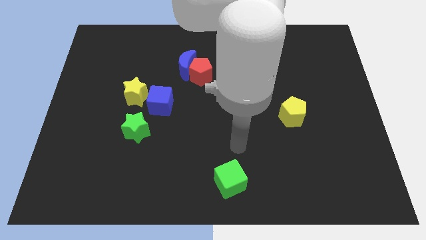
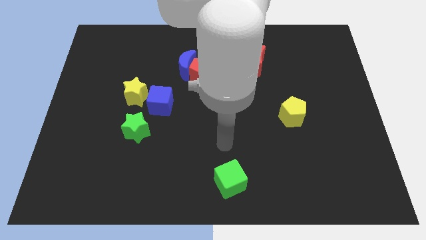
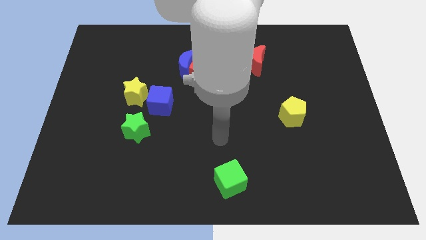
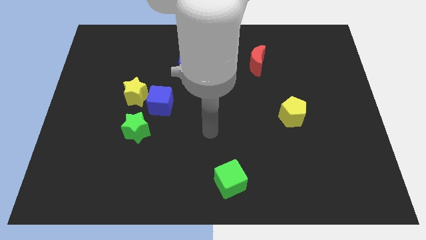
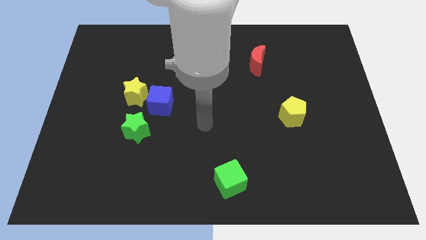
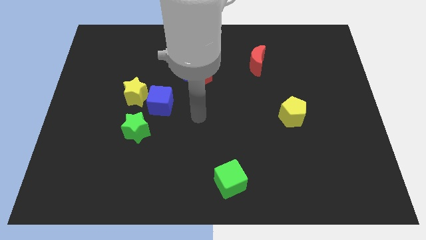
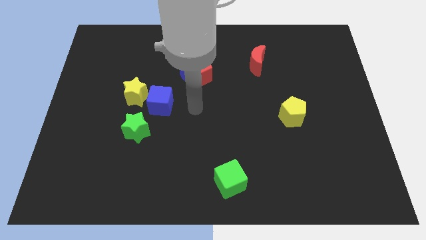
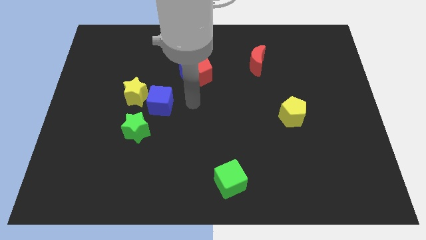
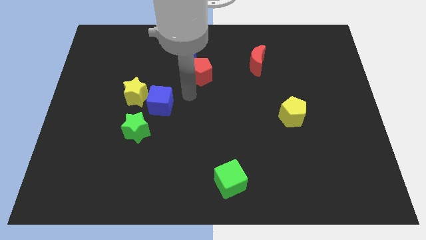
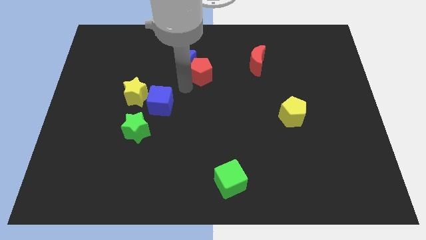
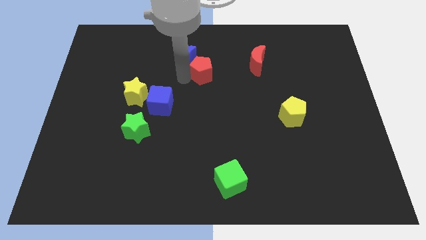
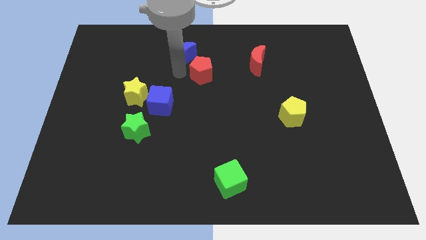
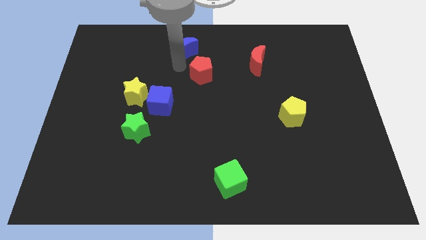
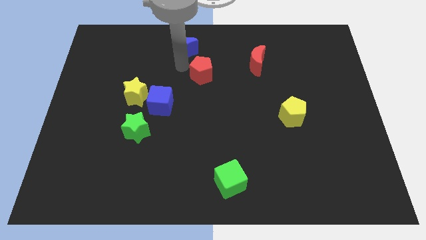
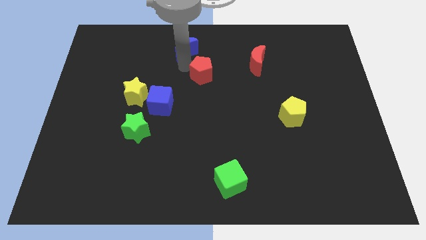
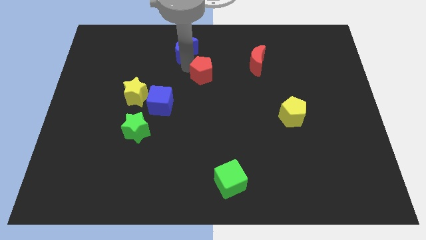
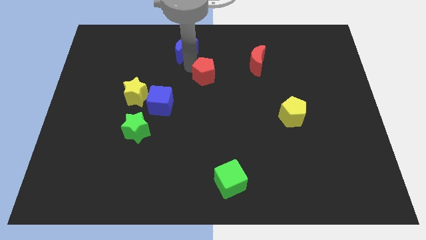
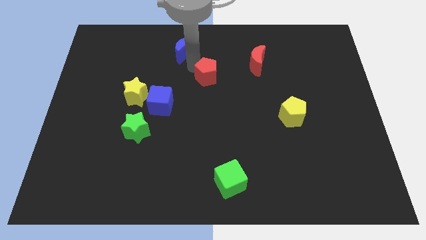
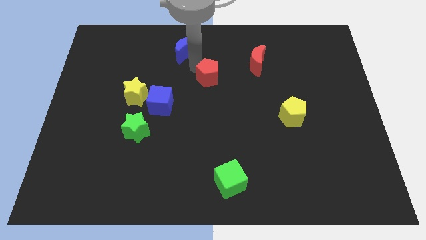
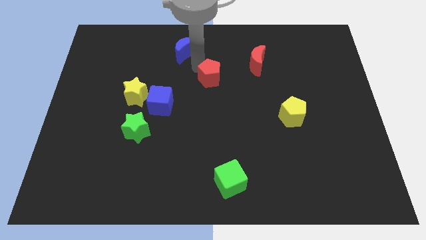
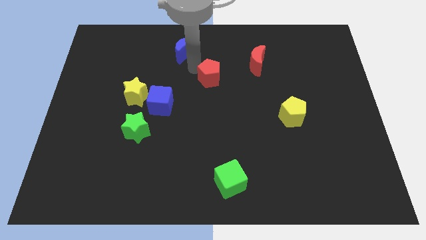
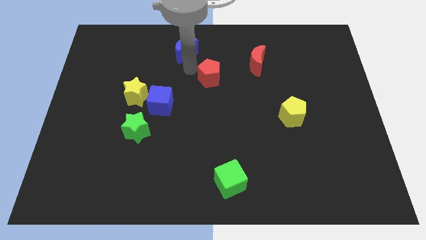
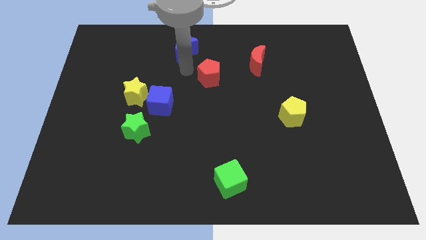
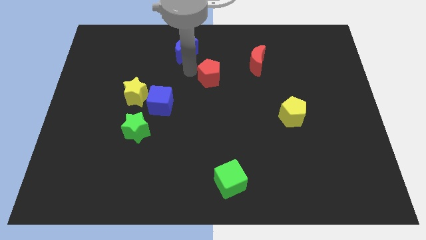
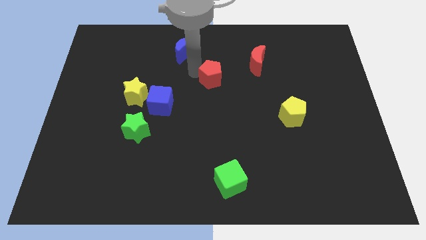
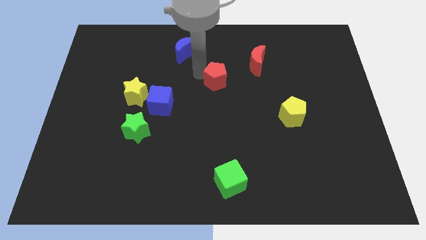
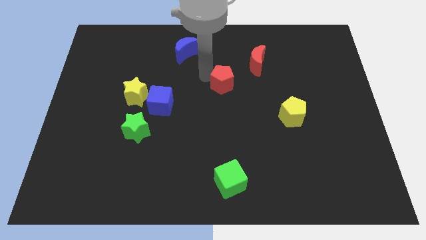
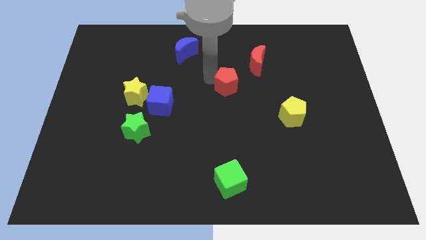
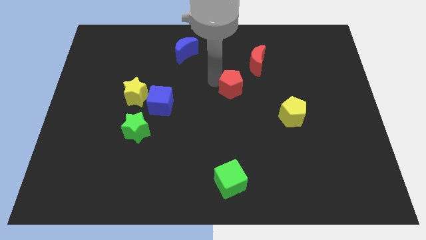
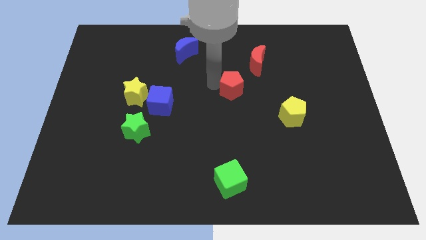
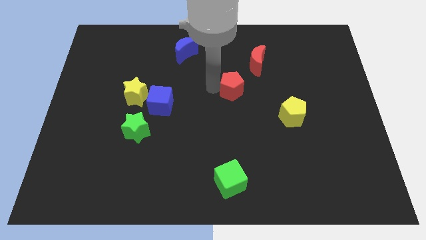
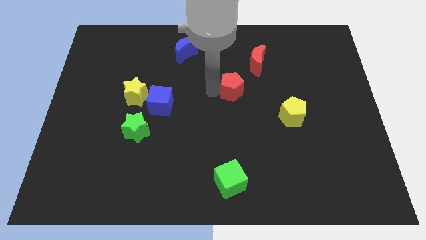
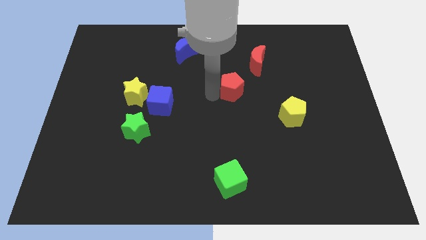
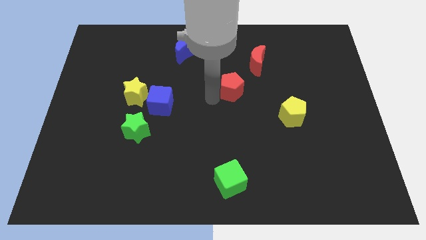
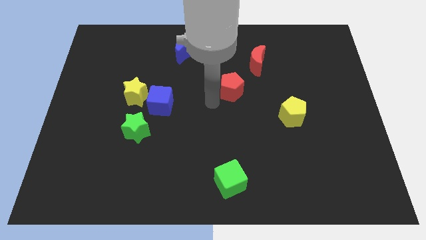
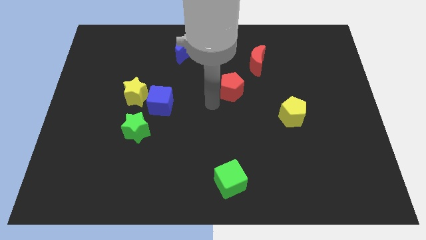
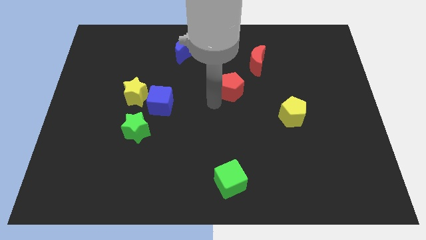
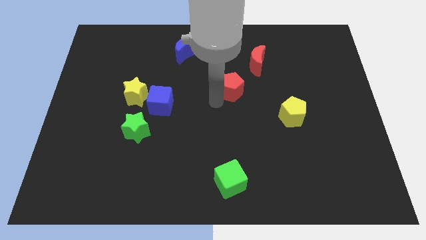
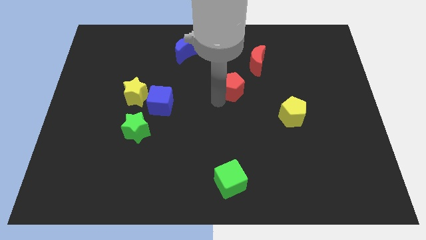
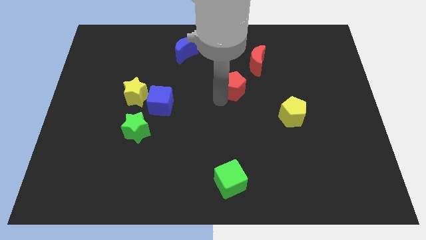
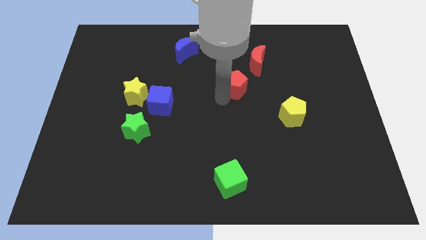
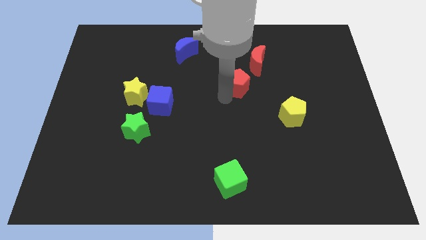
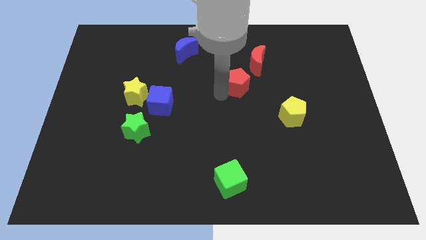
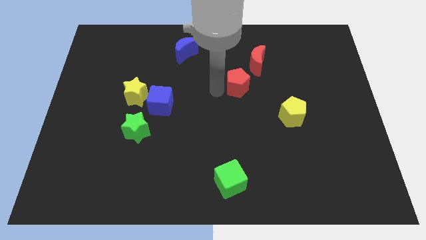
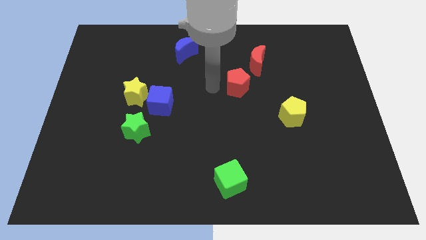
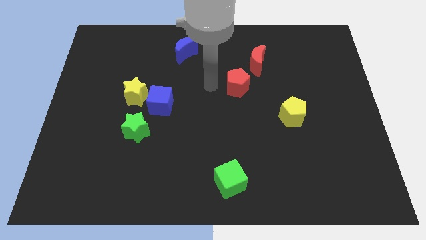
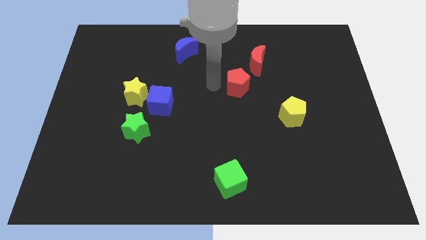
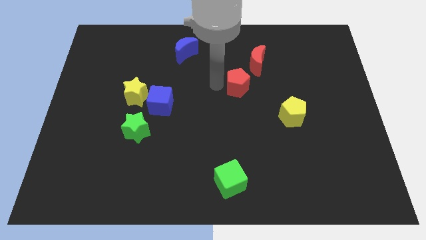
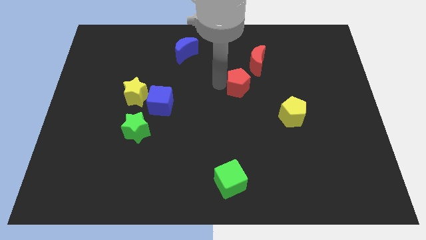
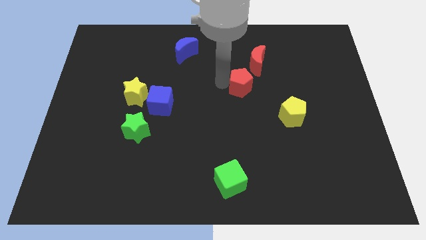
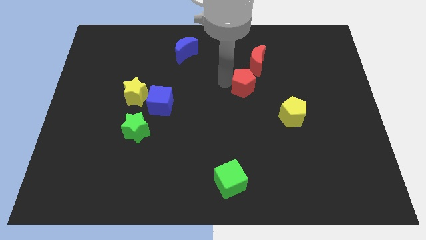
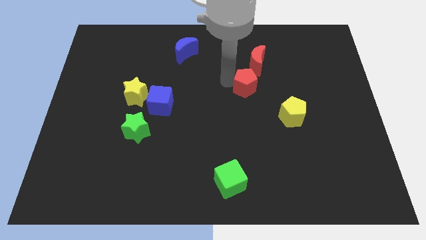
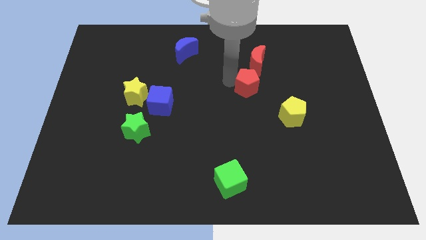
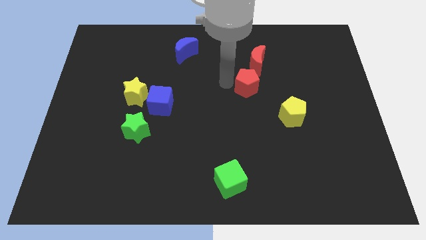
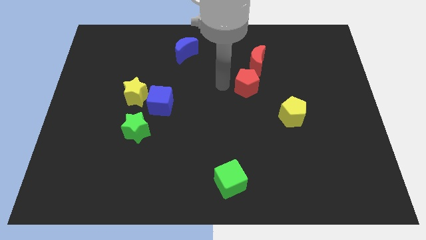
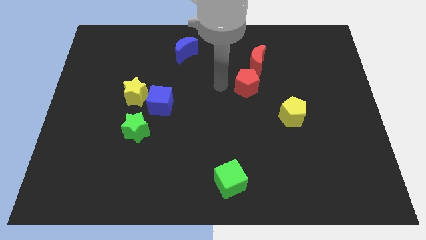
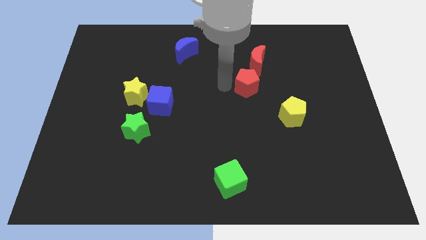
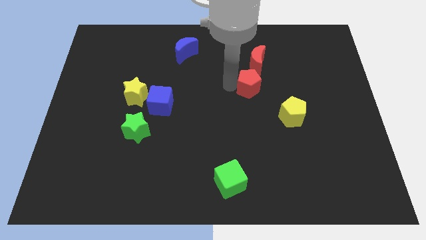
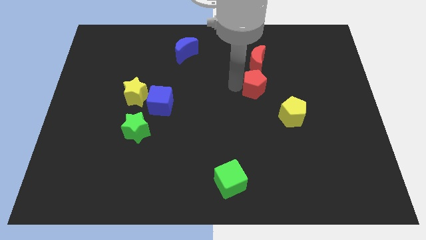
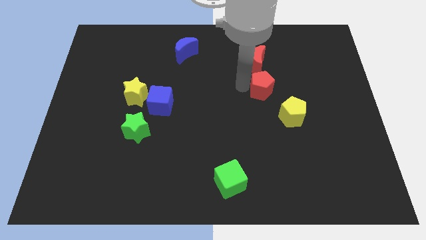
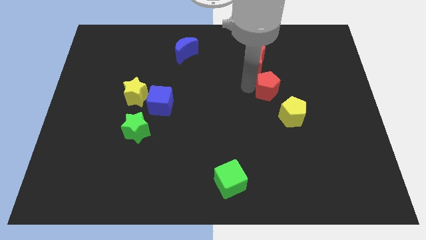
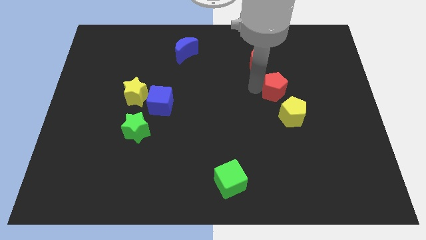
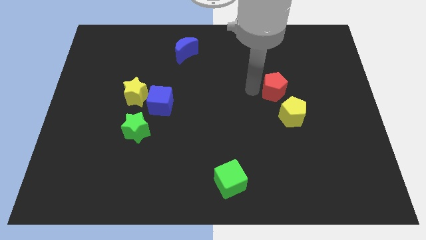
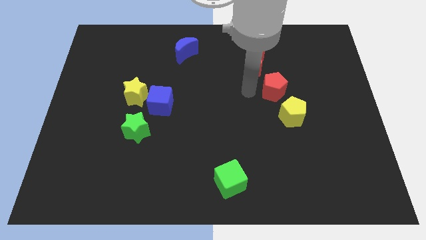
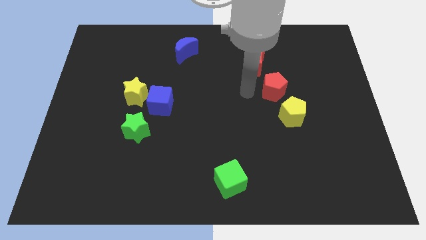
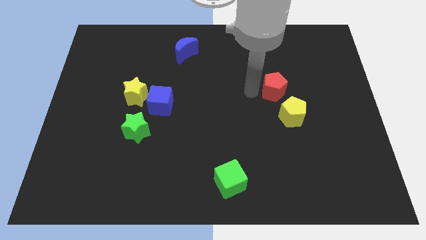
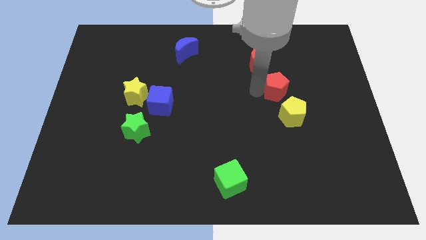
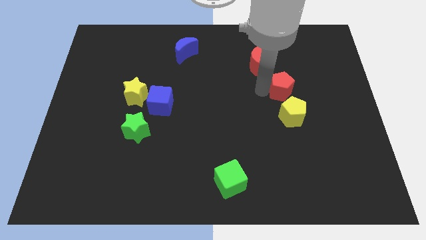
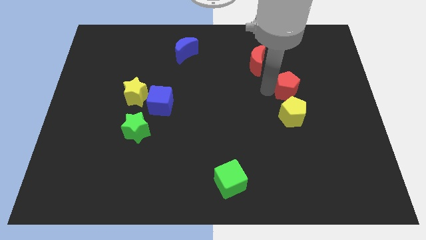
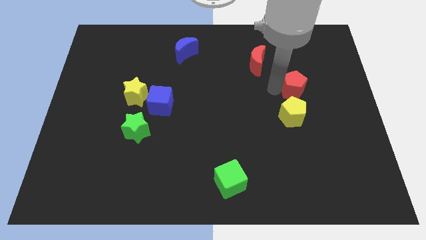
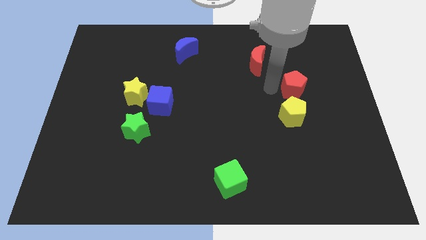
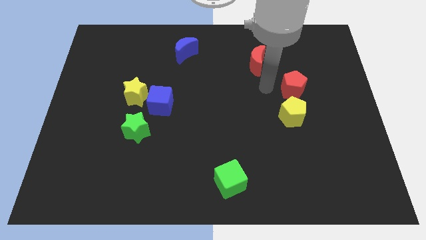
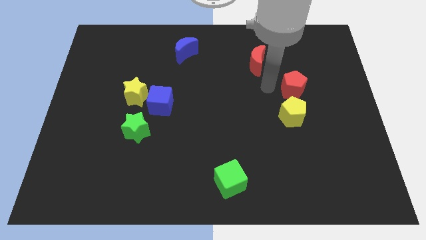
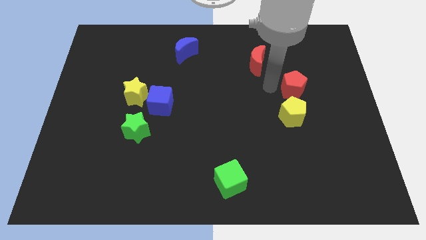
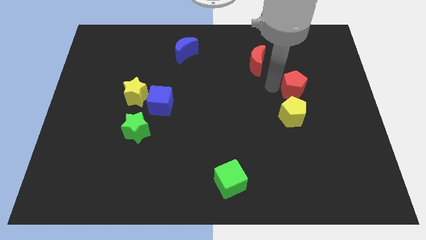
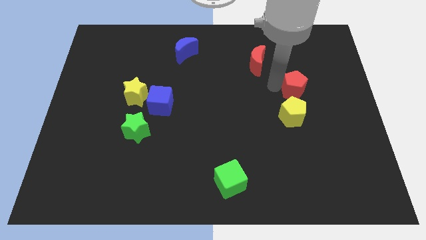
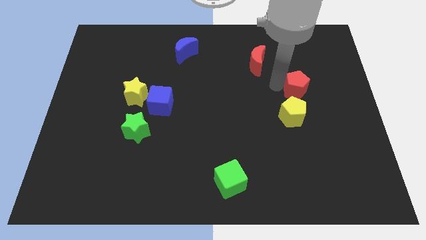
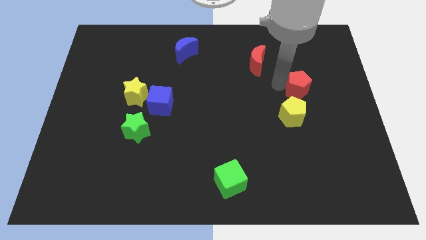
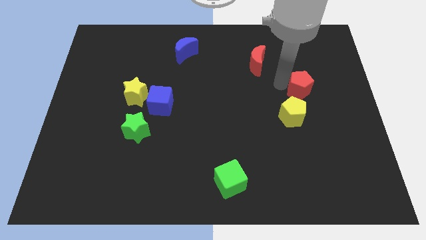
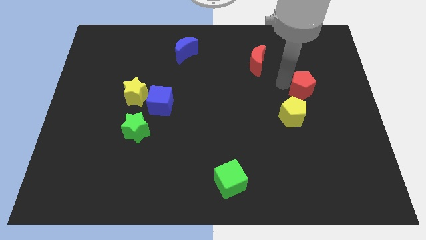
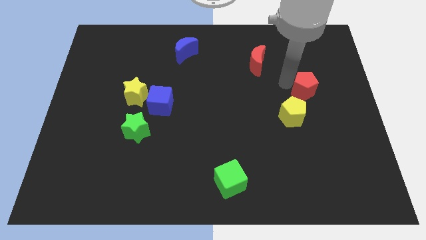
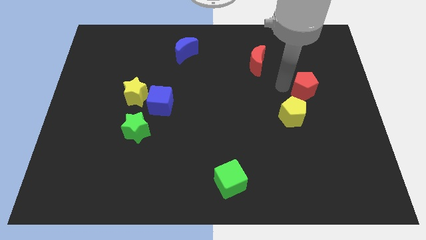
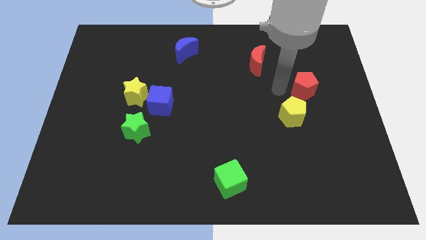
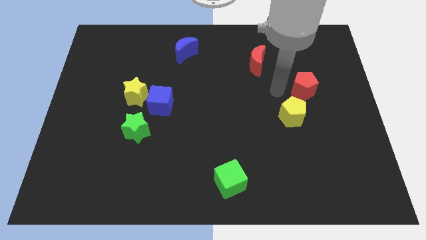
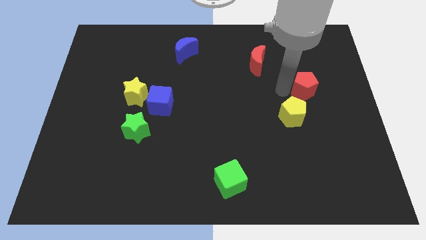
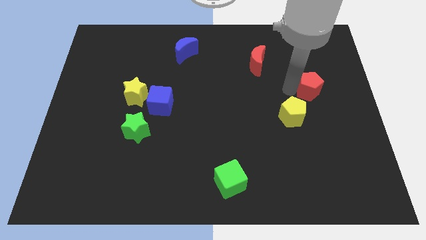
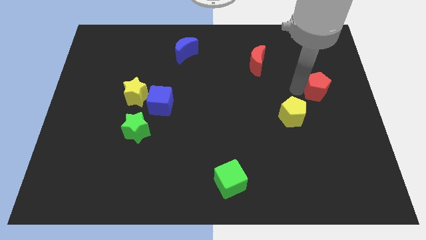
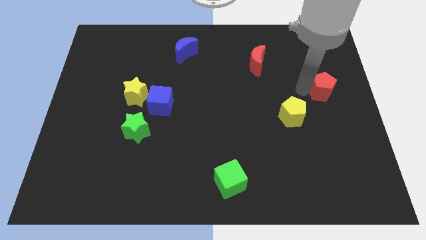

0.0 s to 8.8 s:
slide the red pentagon to the center right
